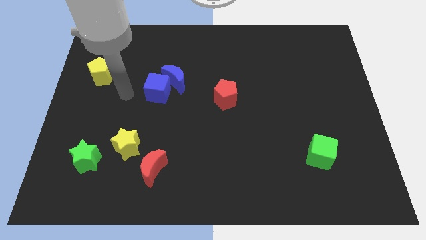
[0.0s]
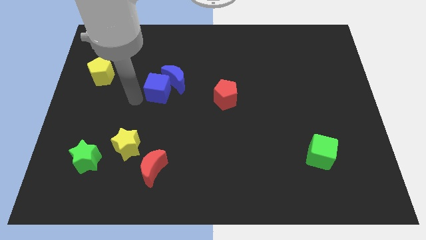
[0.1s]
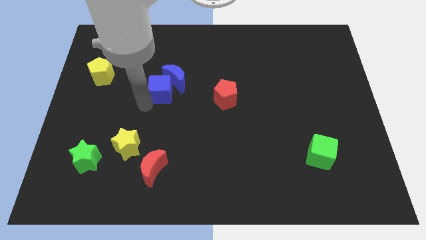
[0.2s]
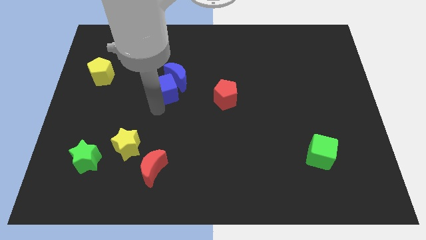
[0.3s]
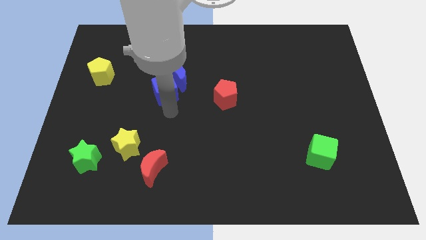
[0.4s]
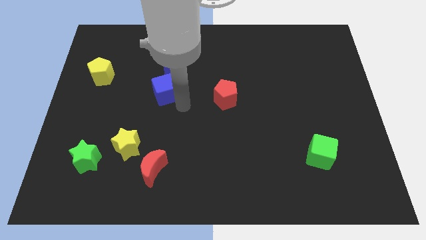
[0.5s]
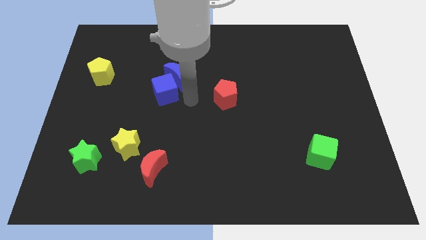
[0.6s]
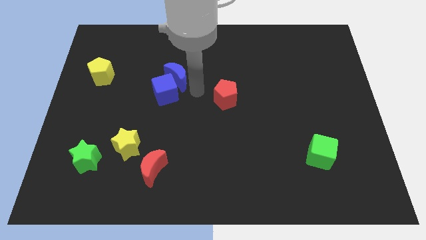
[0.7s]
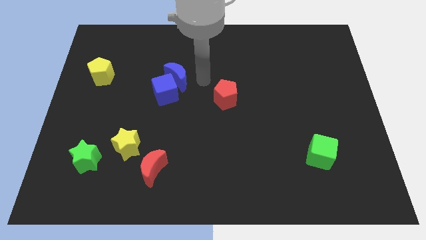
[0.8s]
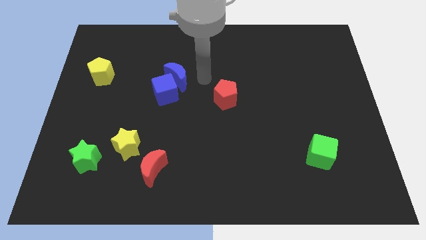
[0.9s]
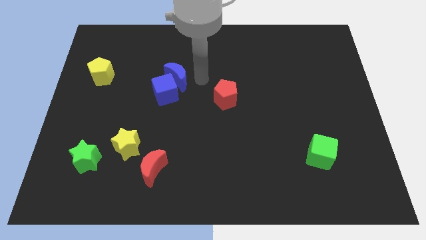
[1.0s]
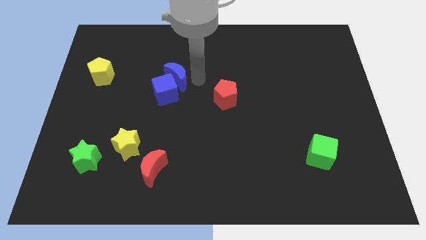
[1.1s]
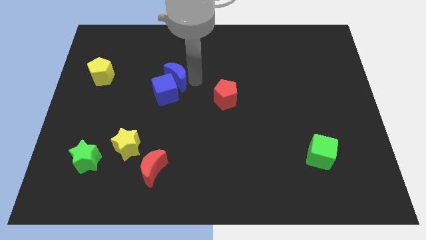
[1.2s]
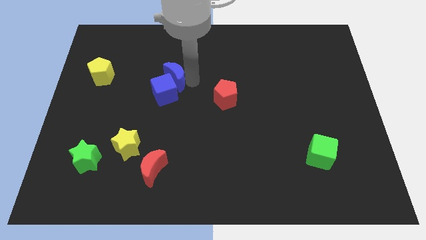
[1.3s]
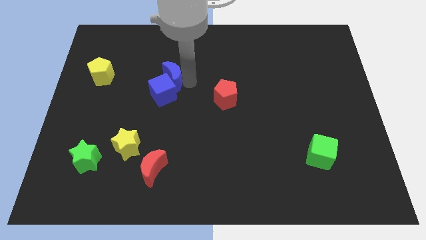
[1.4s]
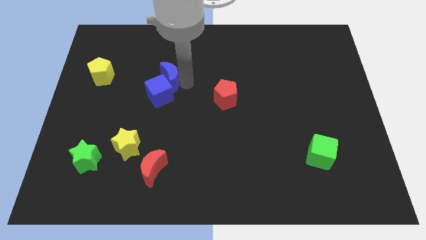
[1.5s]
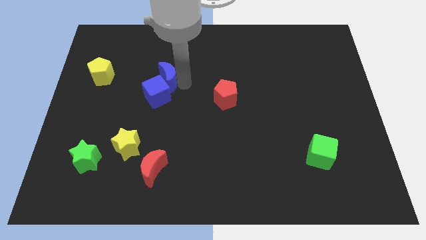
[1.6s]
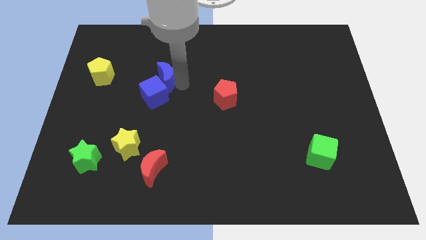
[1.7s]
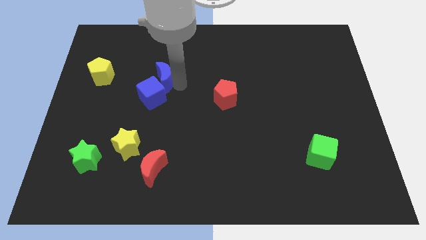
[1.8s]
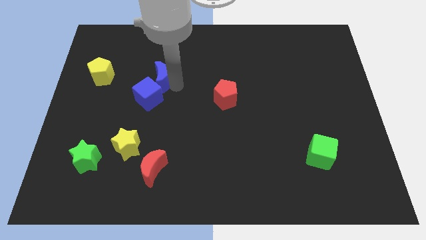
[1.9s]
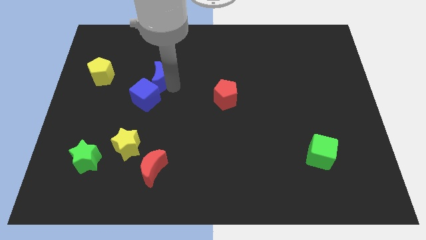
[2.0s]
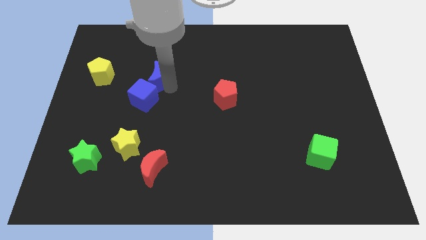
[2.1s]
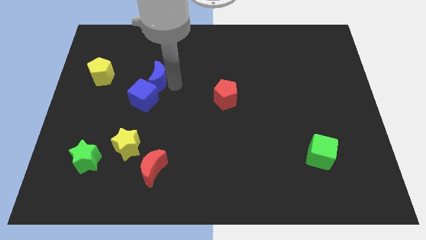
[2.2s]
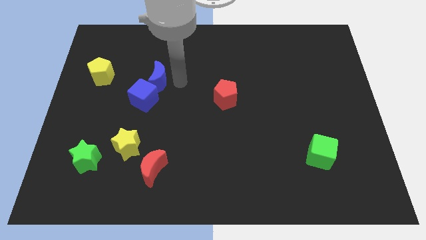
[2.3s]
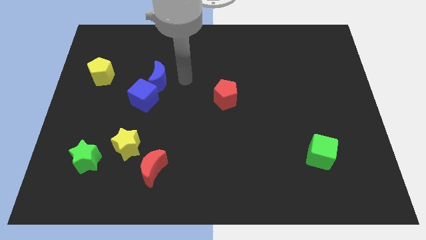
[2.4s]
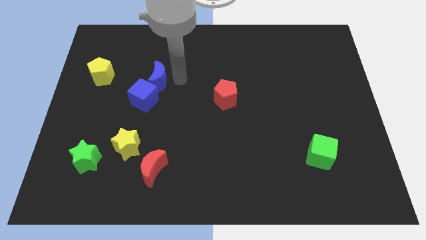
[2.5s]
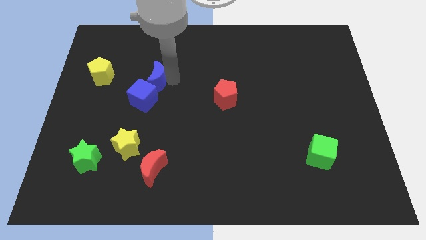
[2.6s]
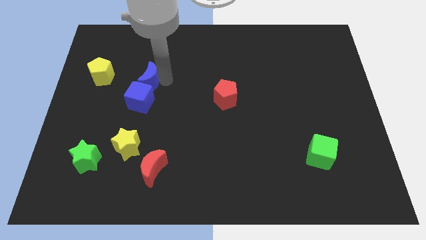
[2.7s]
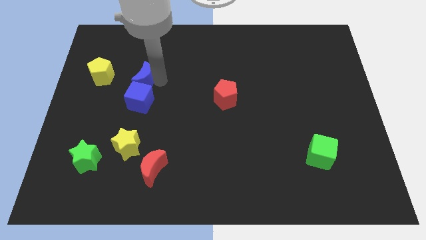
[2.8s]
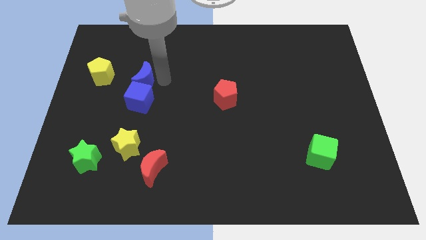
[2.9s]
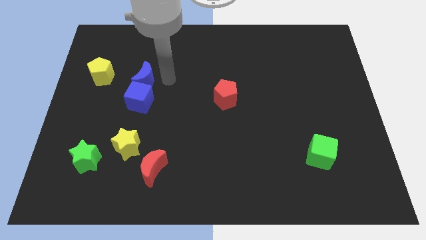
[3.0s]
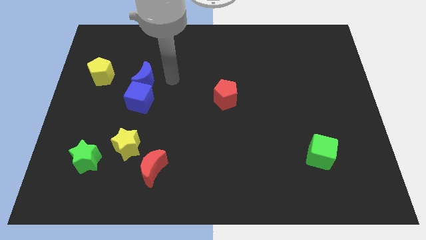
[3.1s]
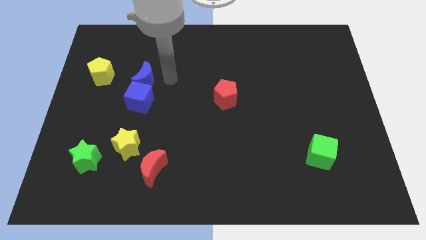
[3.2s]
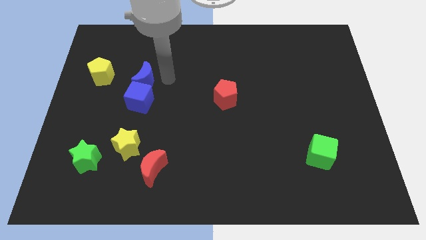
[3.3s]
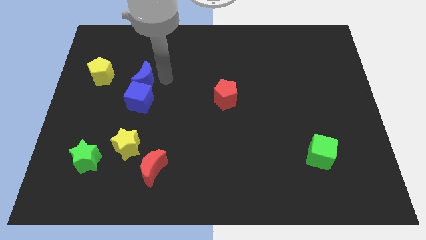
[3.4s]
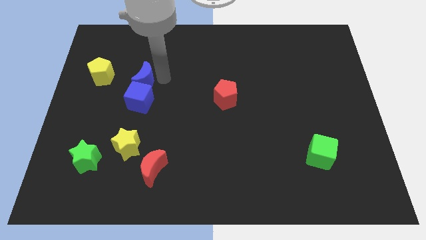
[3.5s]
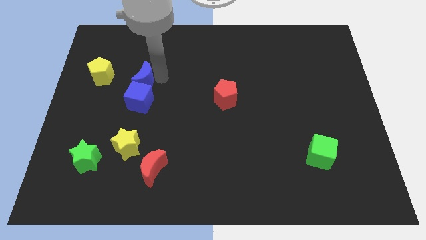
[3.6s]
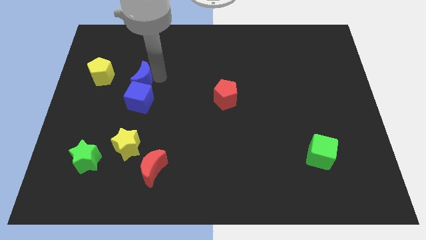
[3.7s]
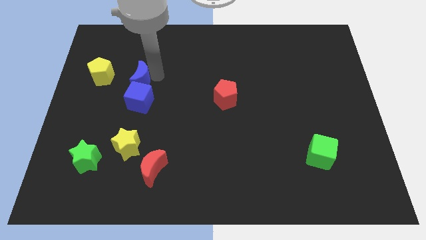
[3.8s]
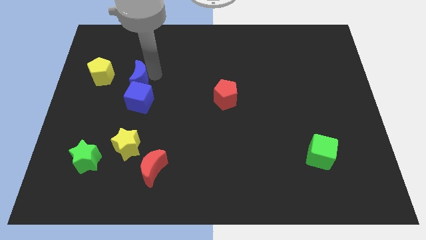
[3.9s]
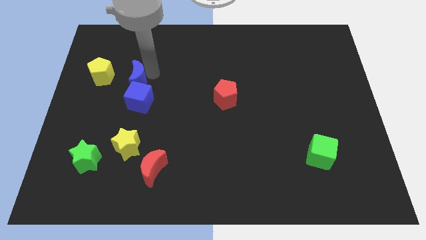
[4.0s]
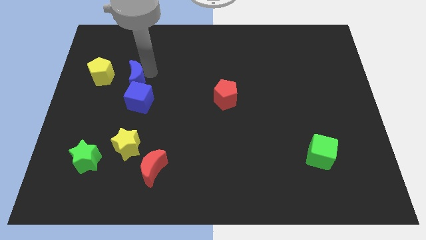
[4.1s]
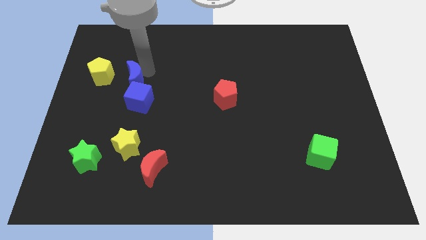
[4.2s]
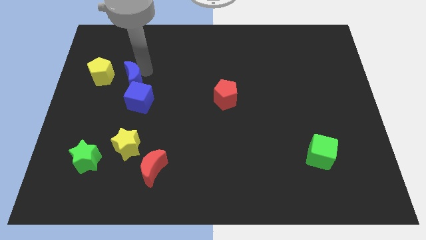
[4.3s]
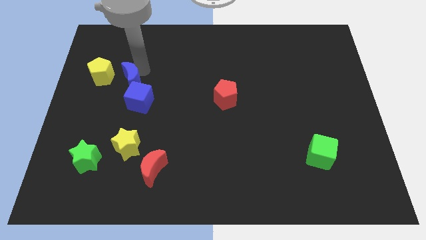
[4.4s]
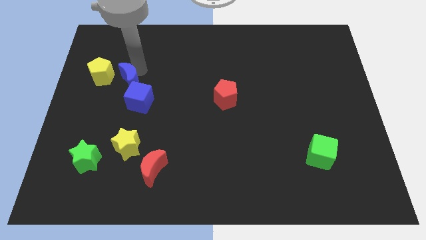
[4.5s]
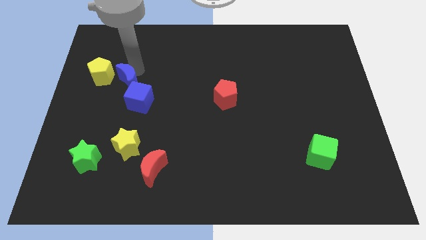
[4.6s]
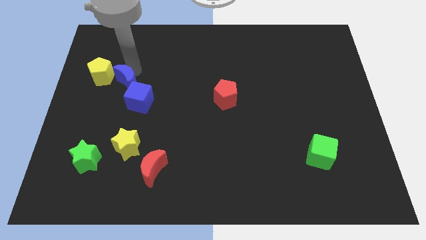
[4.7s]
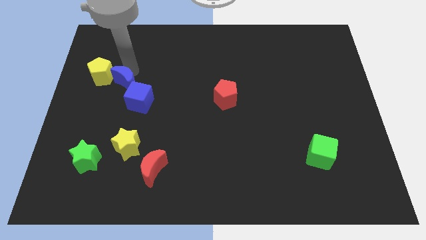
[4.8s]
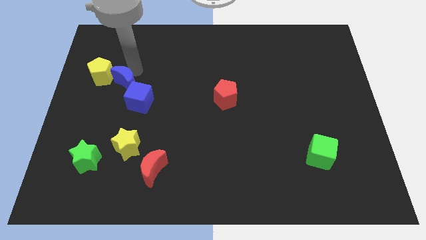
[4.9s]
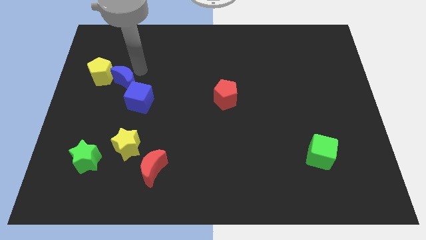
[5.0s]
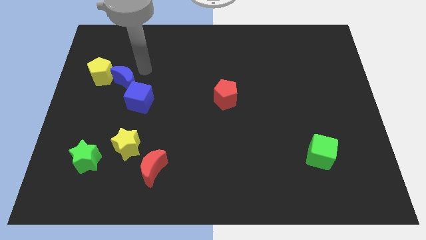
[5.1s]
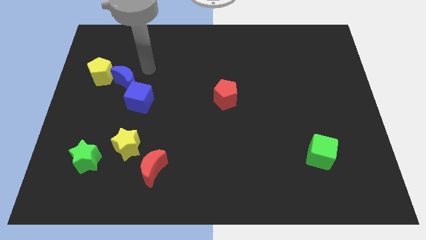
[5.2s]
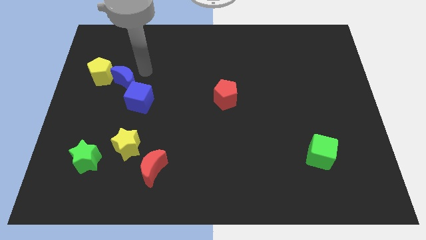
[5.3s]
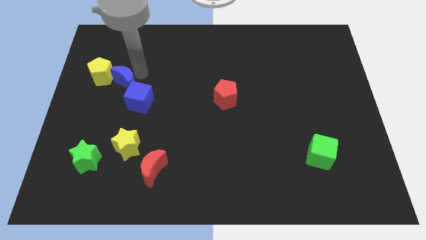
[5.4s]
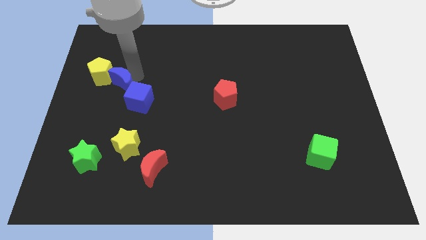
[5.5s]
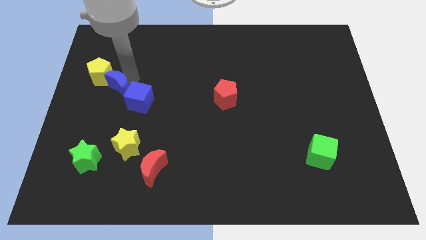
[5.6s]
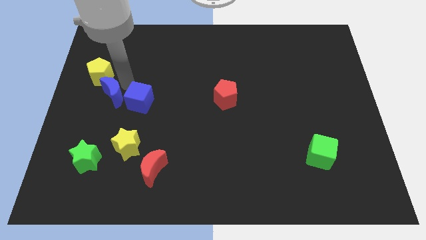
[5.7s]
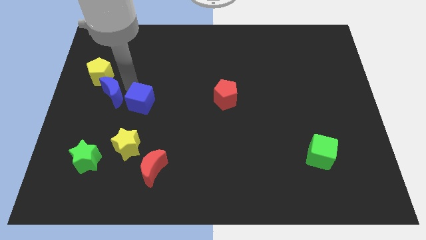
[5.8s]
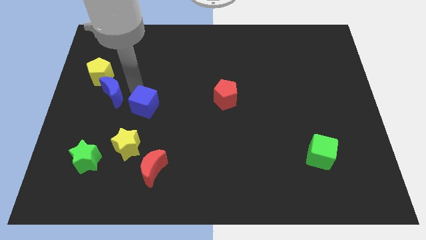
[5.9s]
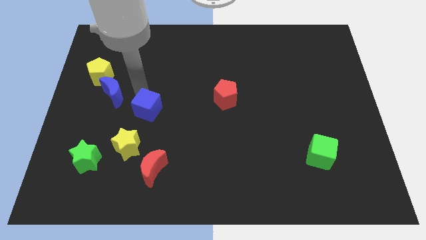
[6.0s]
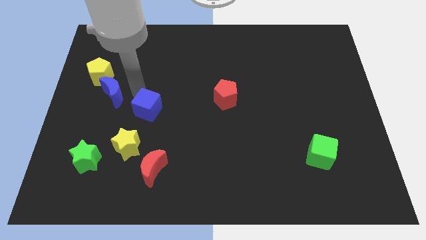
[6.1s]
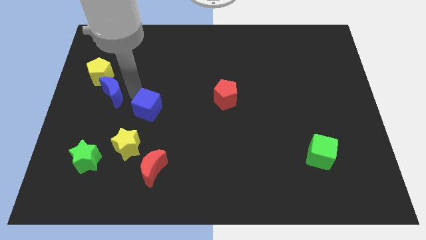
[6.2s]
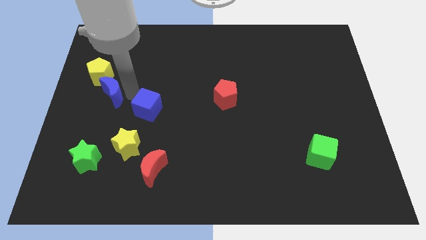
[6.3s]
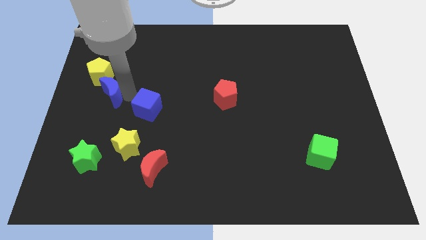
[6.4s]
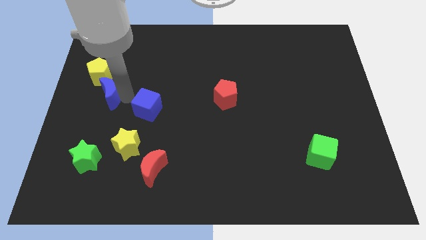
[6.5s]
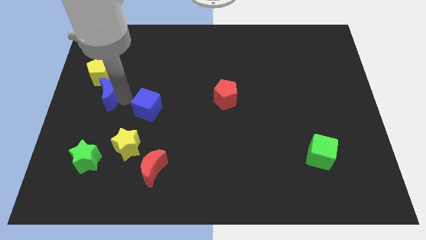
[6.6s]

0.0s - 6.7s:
slide the blue moon to the center left

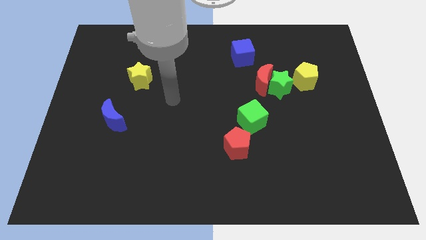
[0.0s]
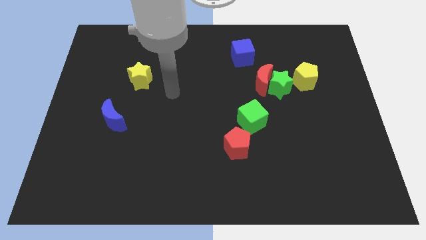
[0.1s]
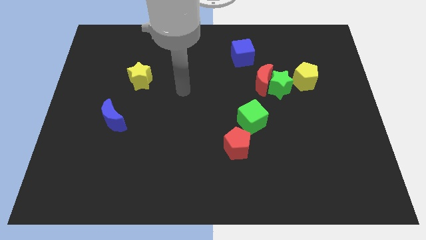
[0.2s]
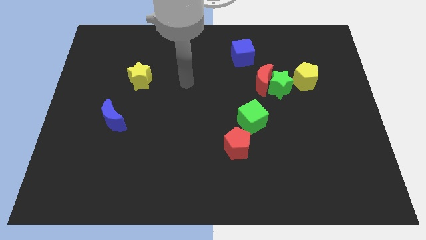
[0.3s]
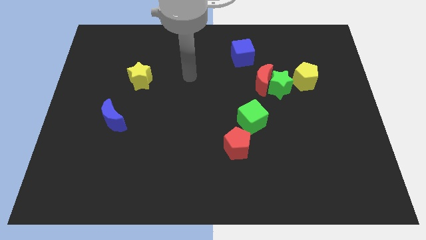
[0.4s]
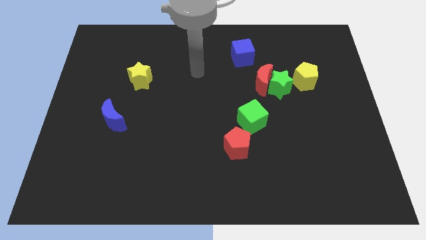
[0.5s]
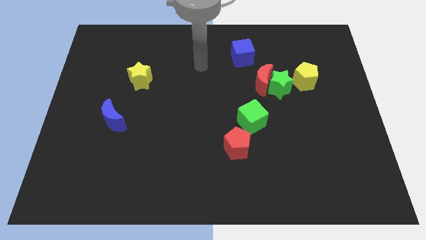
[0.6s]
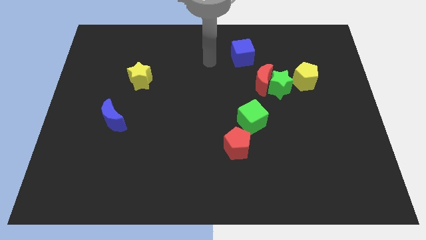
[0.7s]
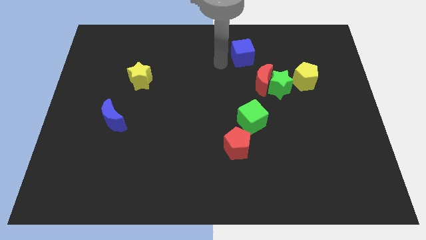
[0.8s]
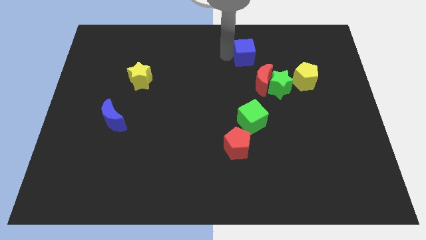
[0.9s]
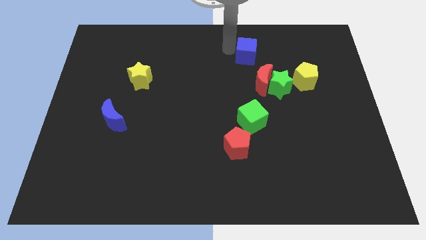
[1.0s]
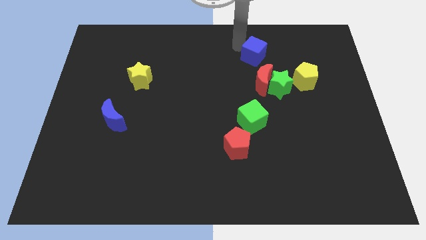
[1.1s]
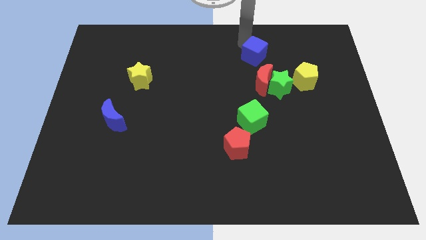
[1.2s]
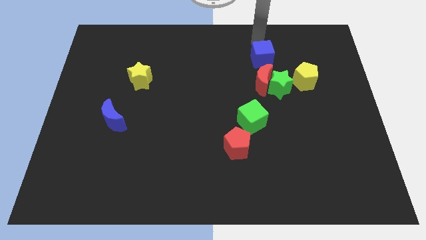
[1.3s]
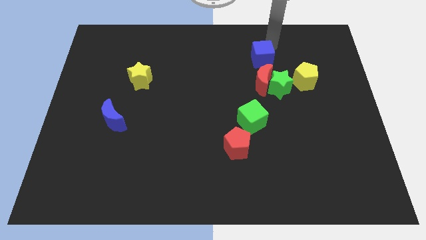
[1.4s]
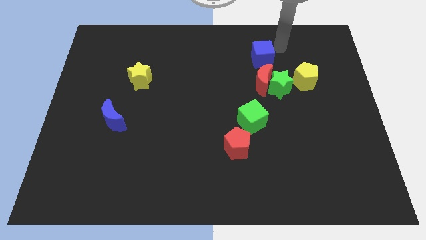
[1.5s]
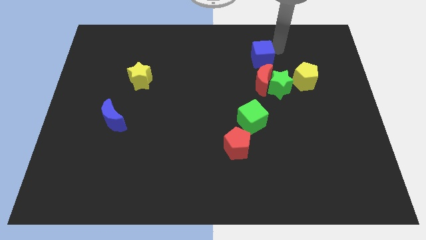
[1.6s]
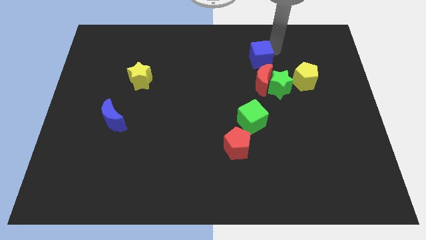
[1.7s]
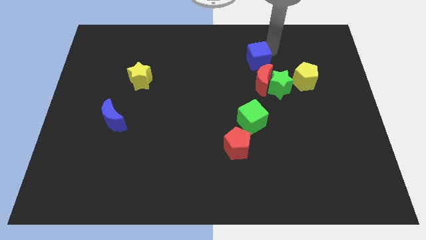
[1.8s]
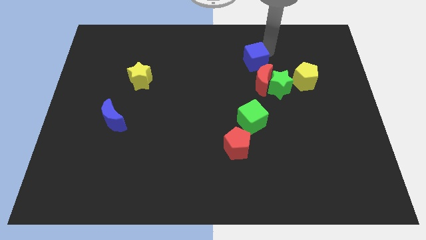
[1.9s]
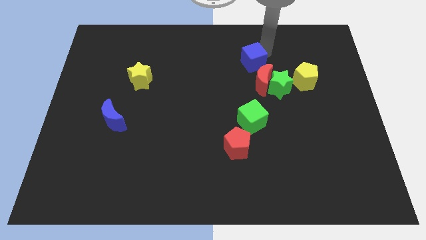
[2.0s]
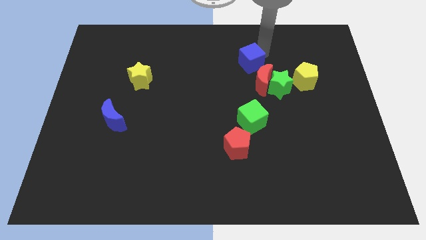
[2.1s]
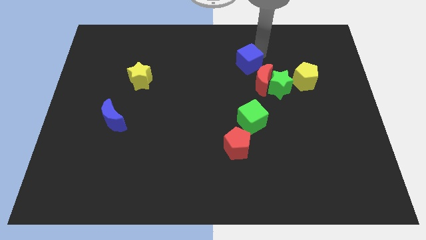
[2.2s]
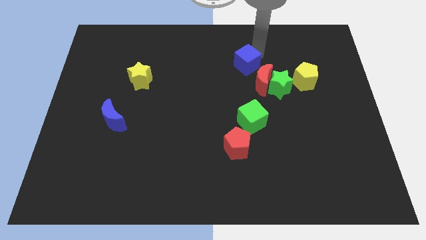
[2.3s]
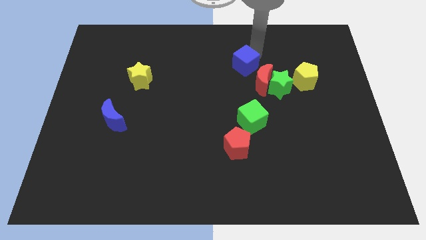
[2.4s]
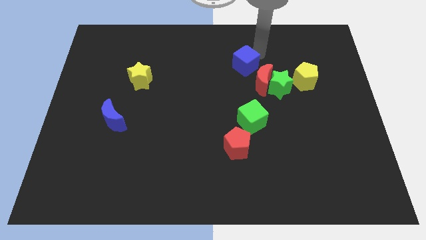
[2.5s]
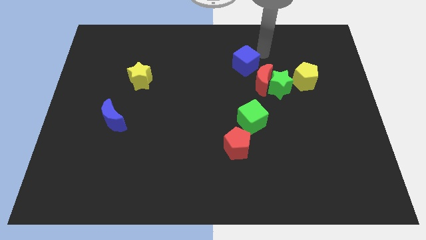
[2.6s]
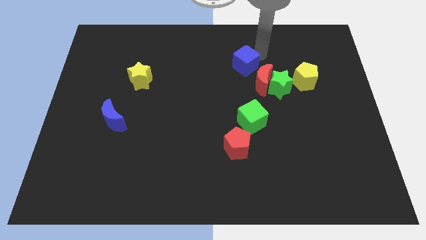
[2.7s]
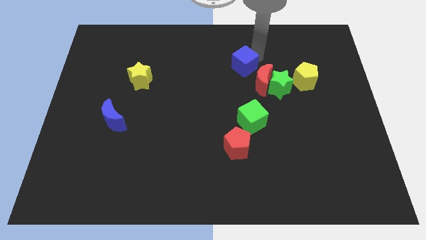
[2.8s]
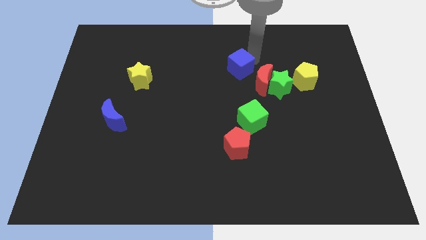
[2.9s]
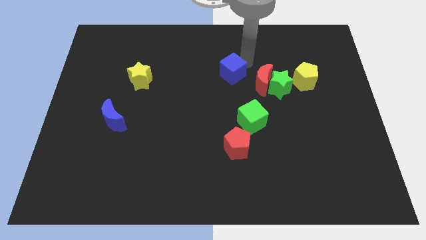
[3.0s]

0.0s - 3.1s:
put the blue cube to the center
